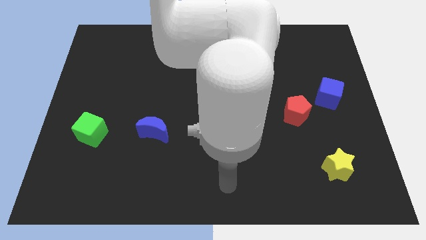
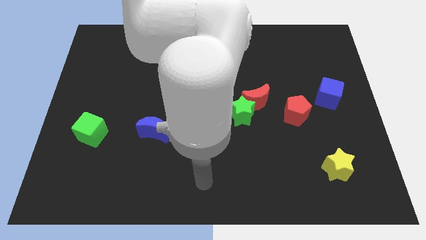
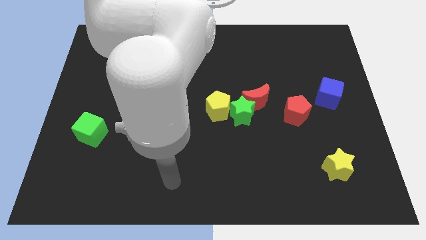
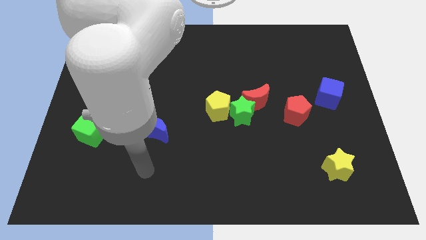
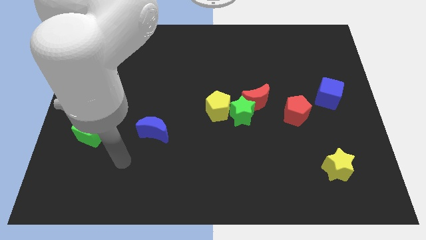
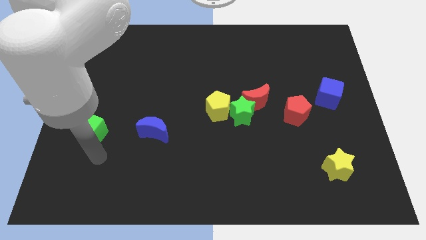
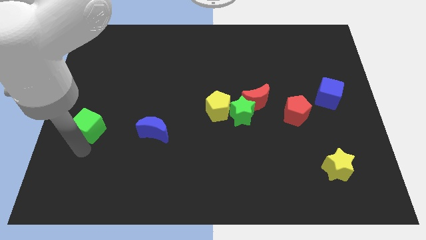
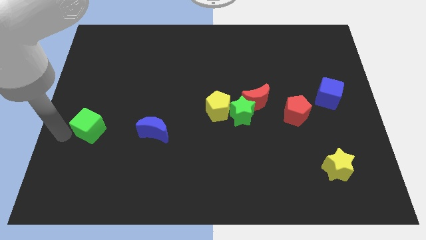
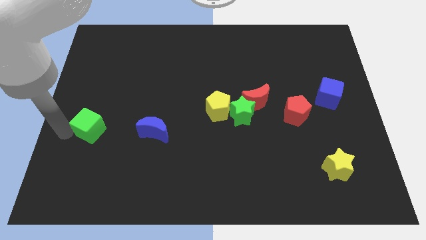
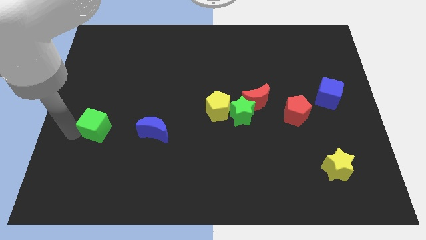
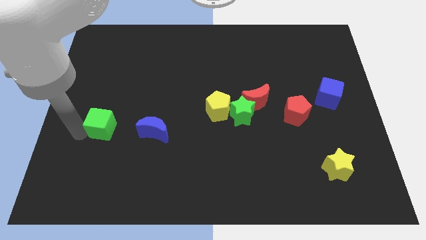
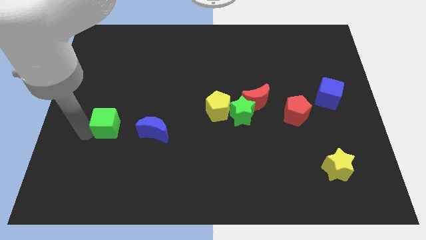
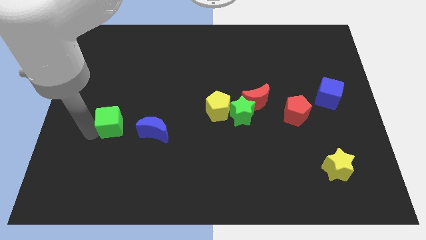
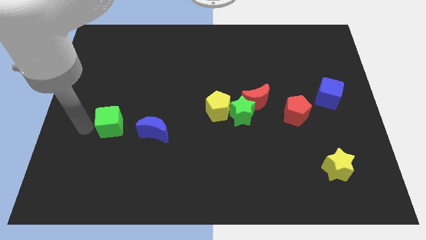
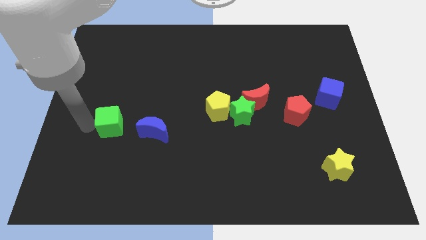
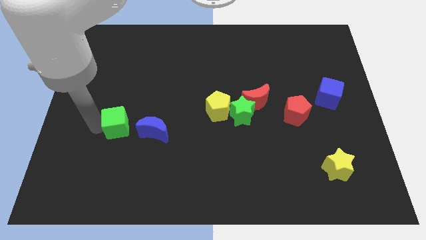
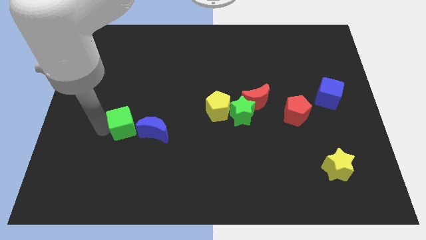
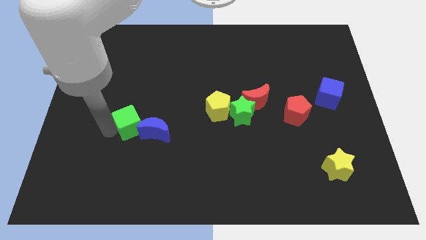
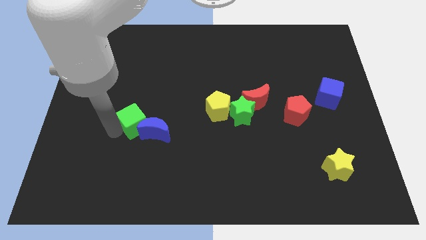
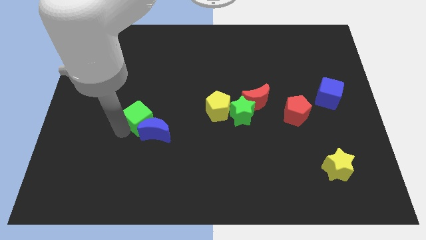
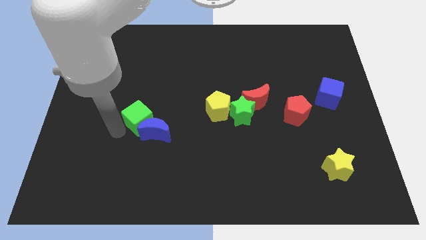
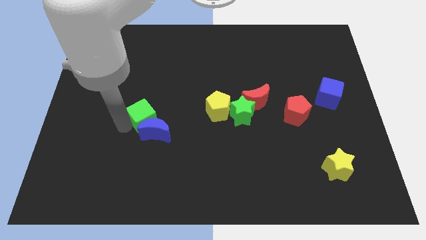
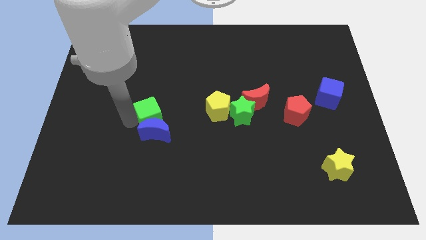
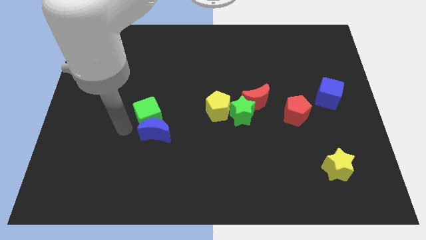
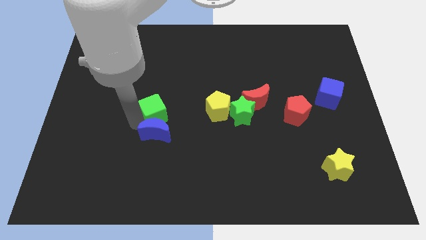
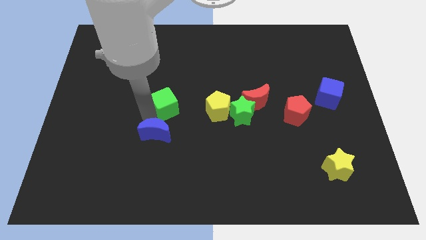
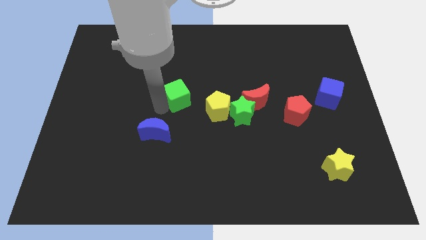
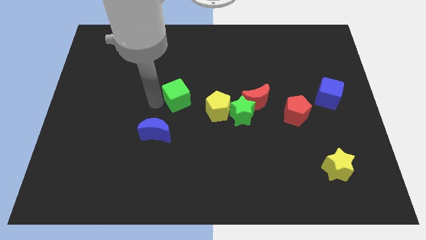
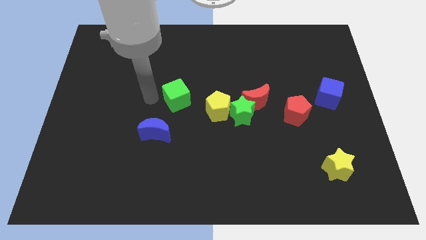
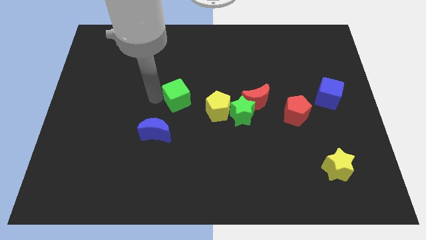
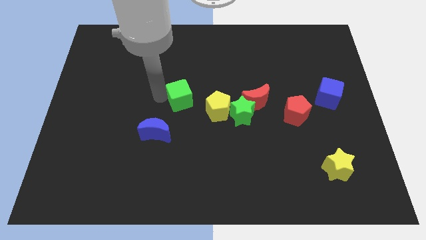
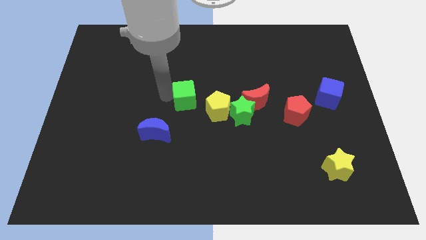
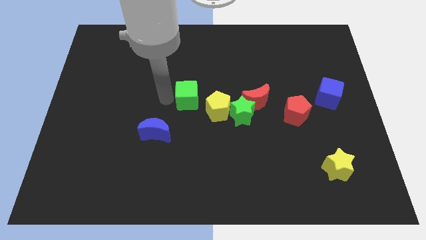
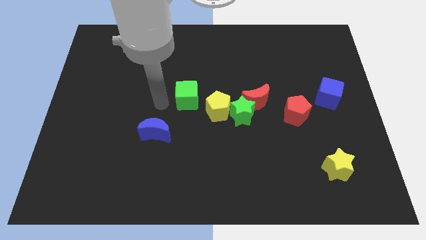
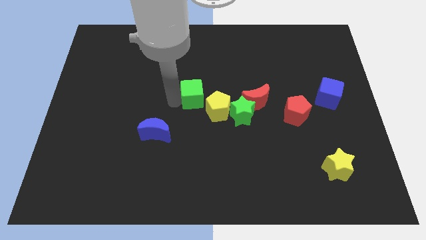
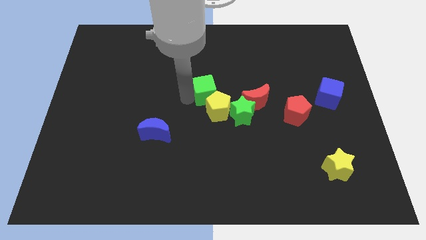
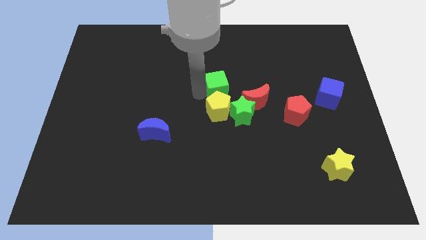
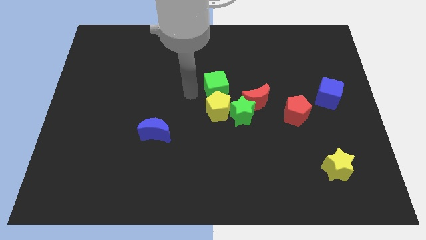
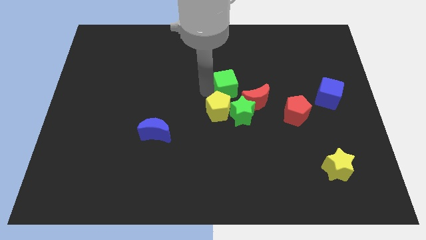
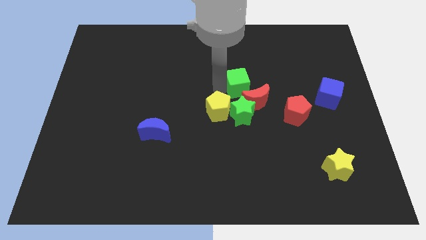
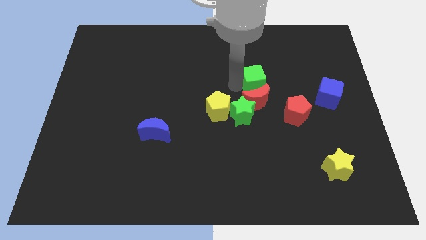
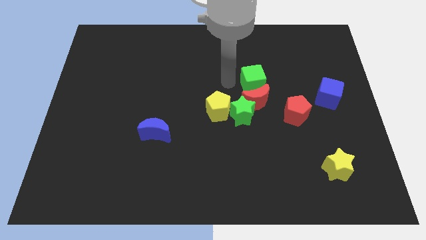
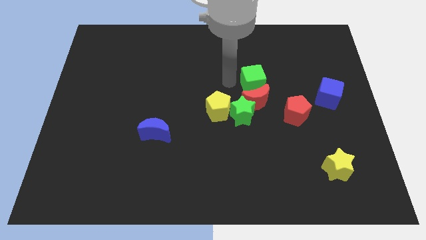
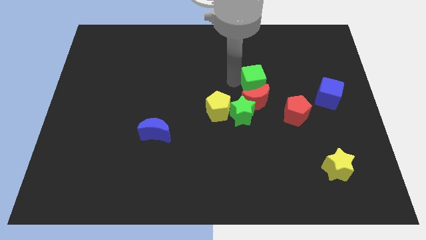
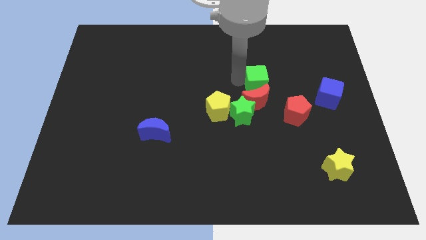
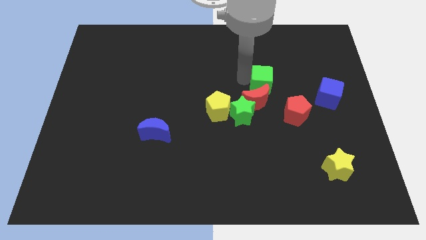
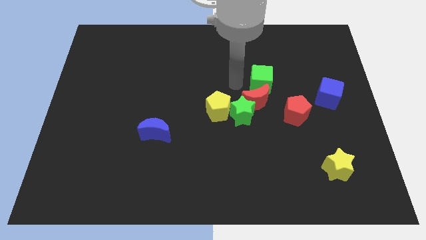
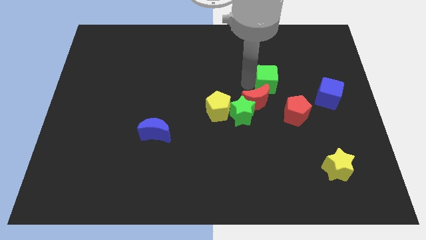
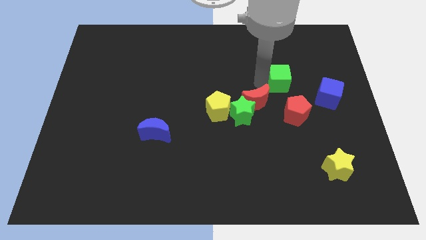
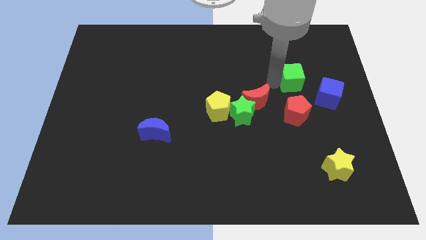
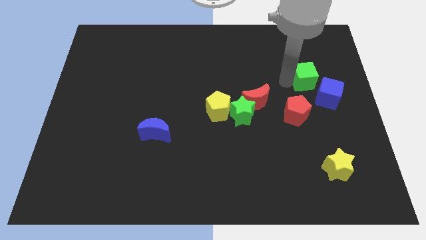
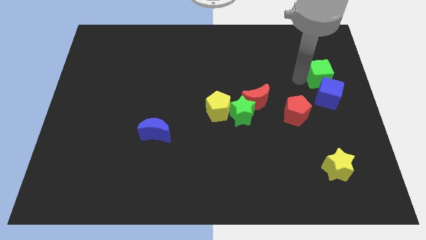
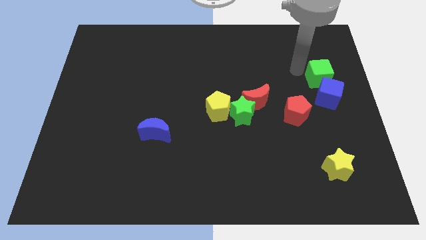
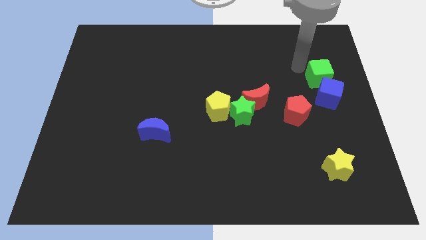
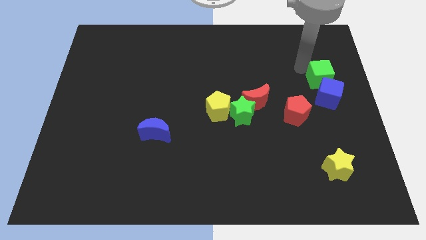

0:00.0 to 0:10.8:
push the green cube to the right side

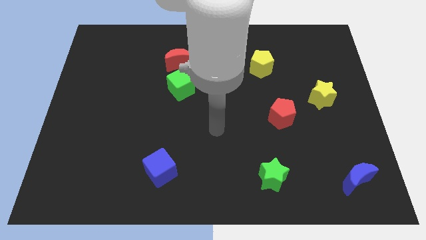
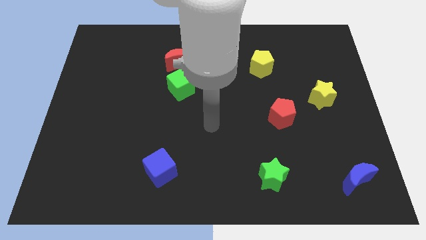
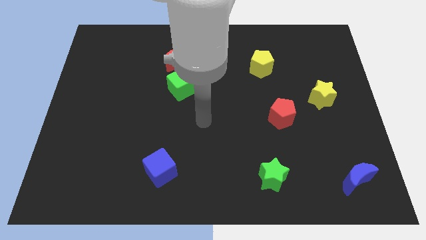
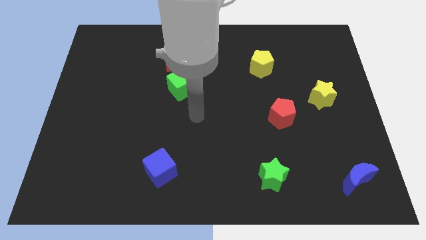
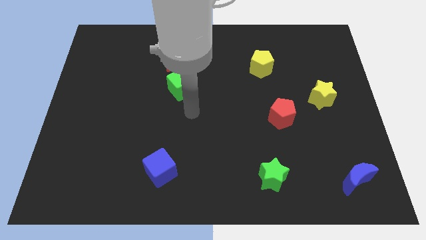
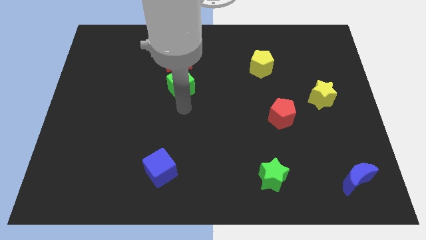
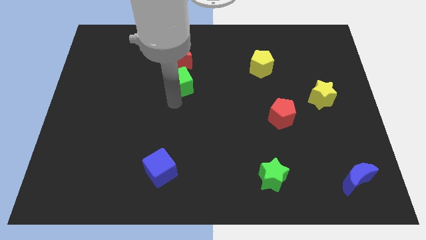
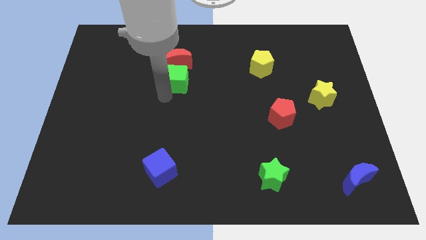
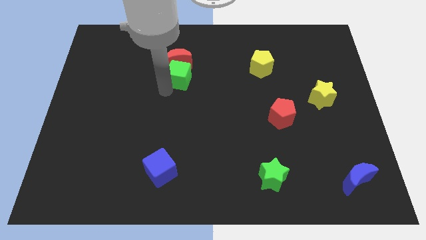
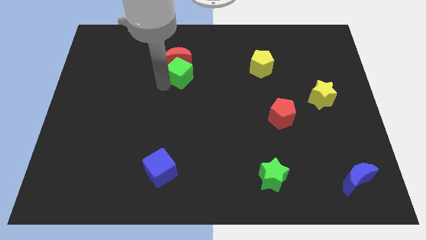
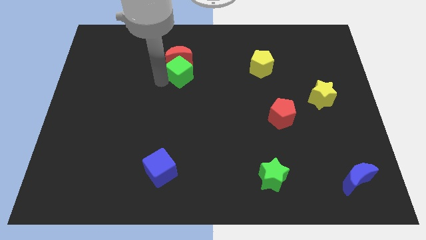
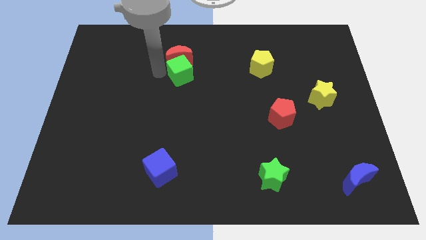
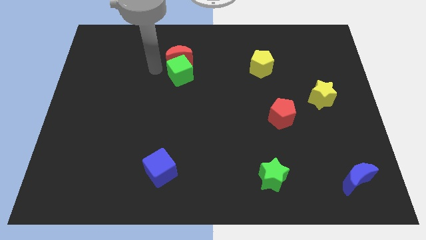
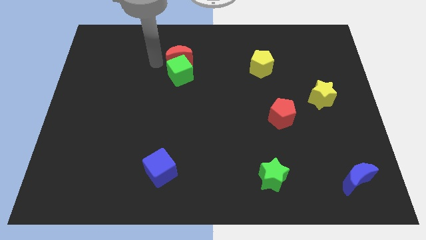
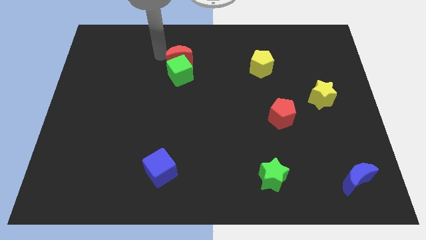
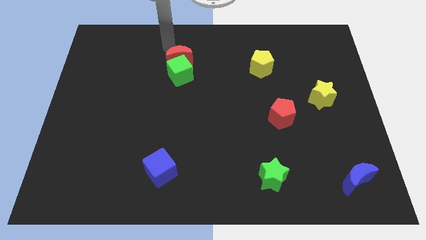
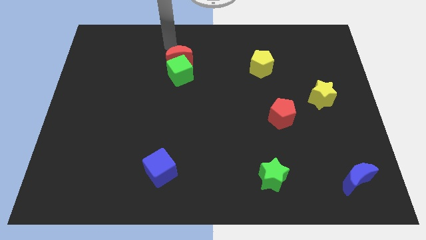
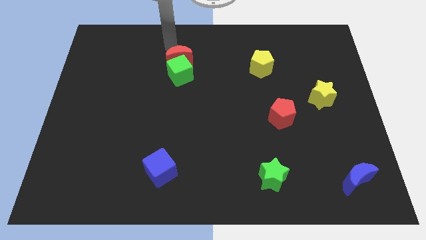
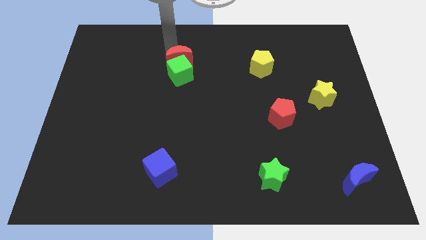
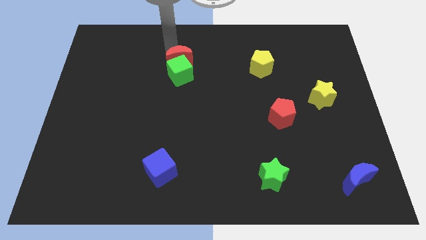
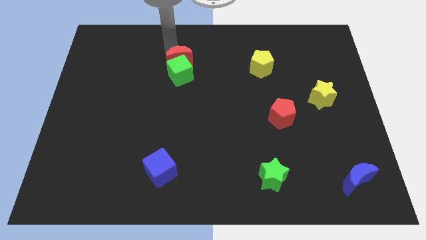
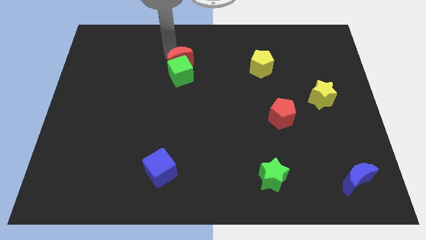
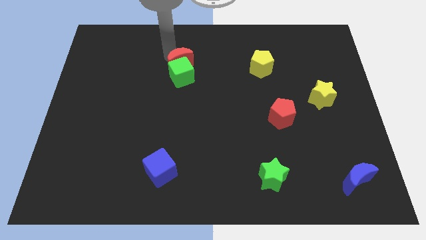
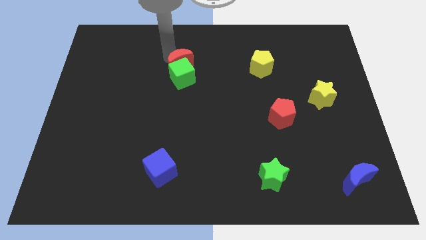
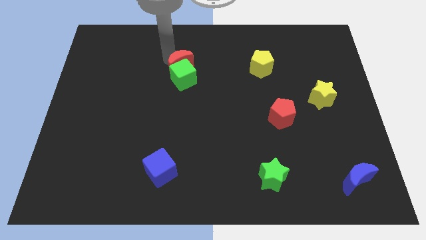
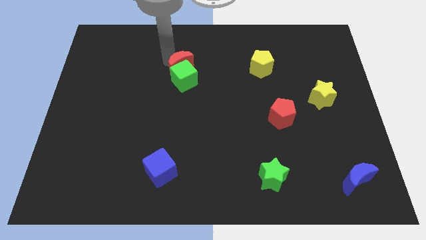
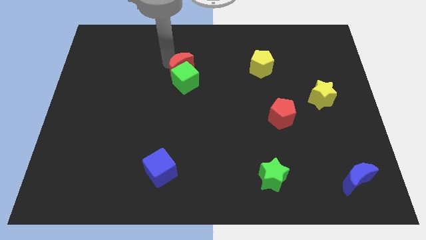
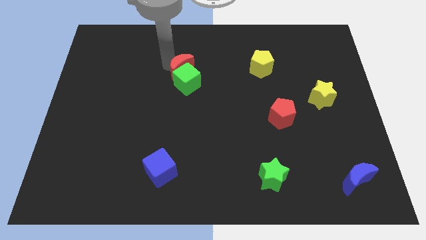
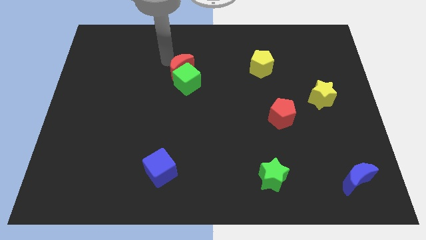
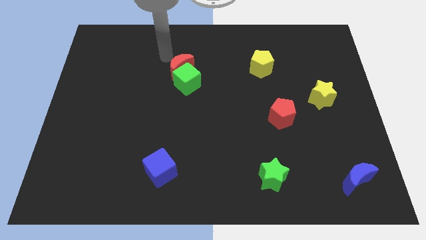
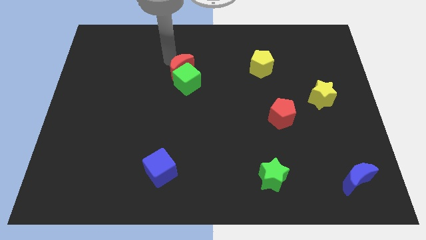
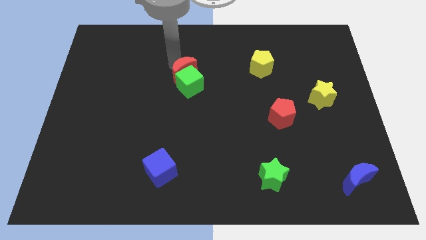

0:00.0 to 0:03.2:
put the red moon to the middle
